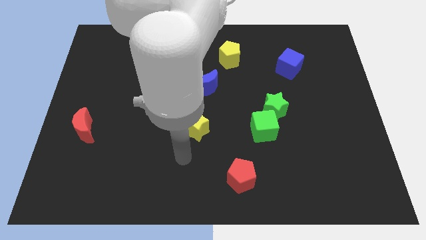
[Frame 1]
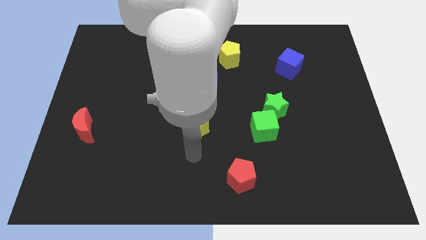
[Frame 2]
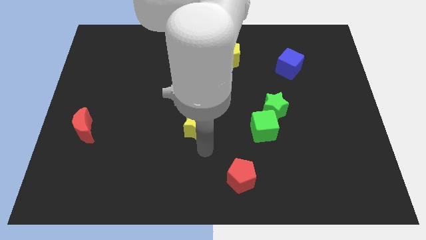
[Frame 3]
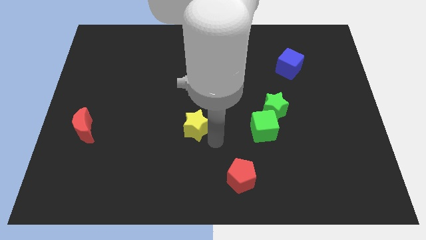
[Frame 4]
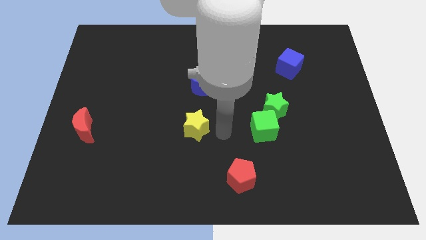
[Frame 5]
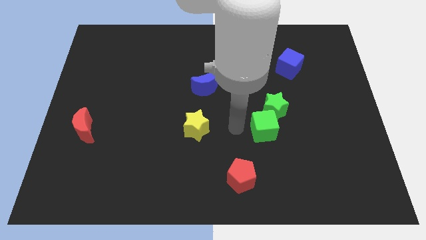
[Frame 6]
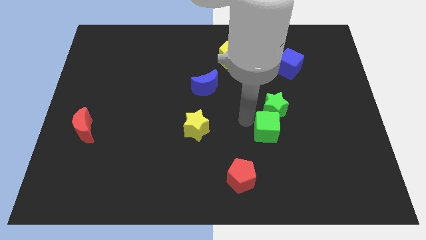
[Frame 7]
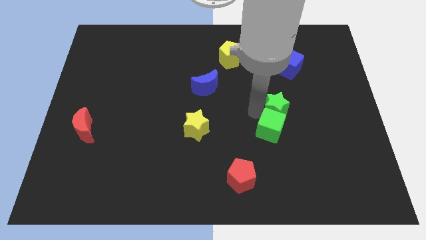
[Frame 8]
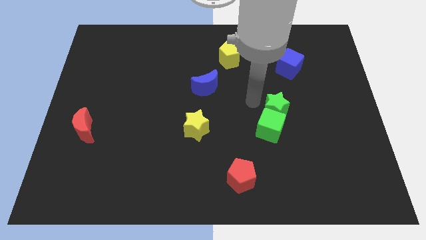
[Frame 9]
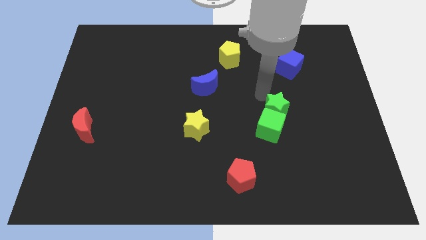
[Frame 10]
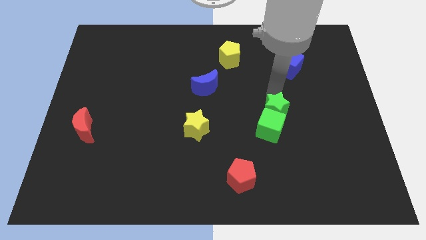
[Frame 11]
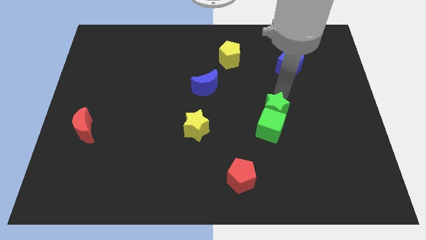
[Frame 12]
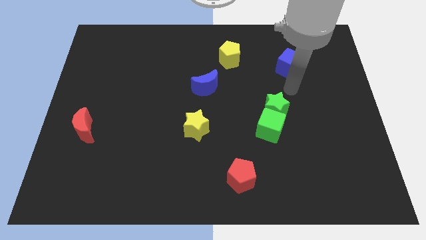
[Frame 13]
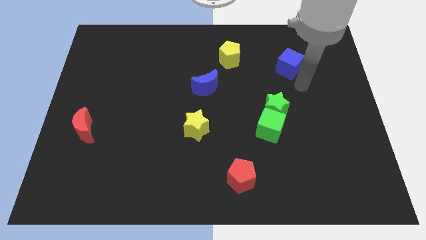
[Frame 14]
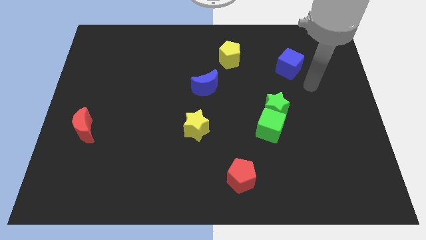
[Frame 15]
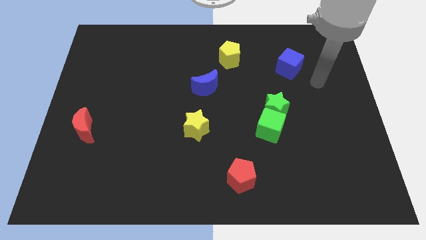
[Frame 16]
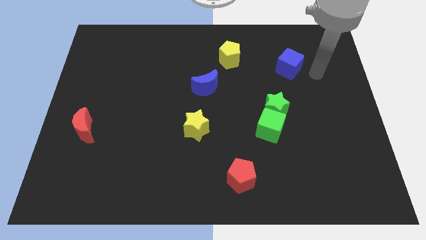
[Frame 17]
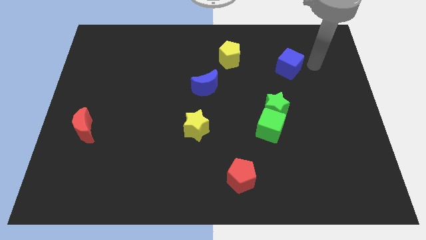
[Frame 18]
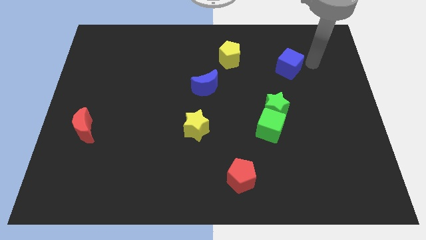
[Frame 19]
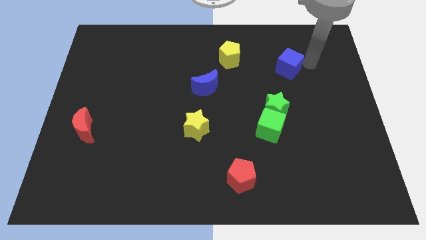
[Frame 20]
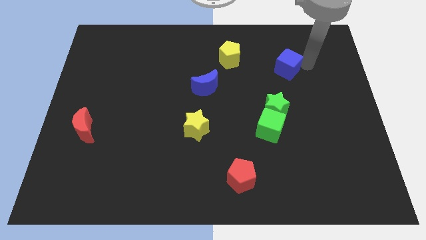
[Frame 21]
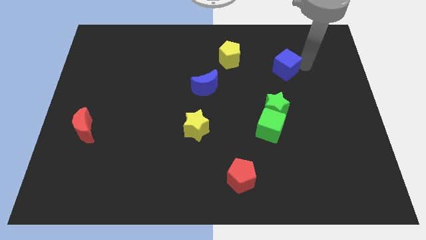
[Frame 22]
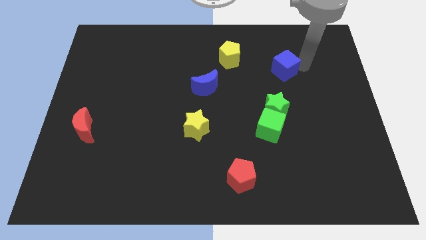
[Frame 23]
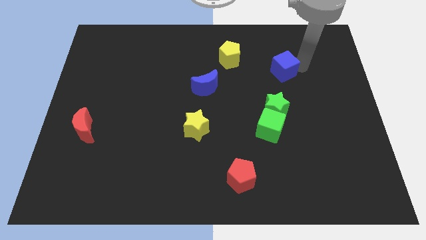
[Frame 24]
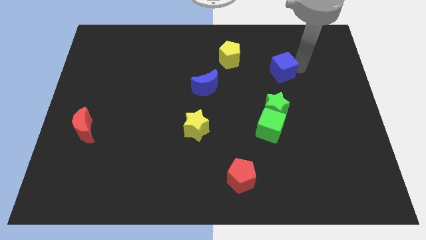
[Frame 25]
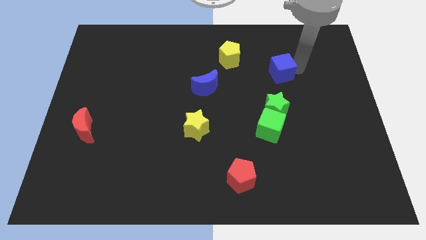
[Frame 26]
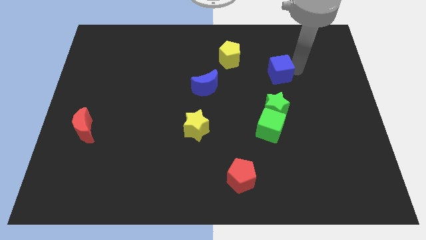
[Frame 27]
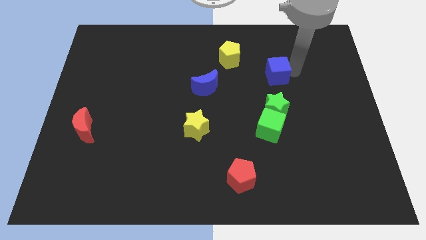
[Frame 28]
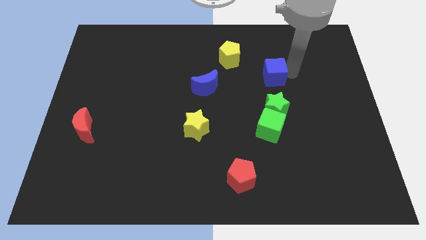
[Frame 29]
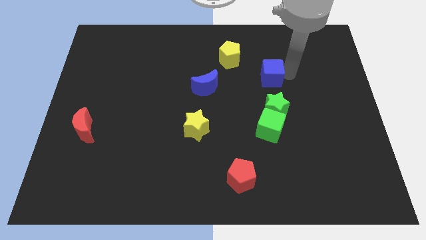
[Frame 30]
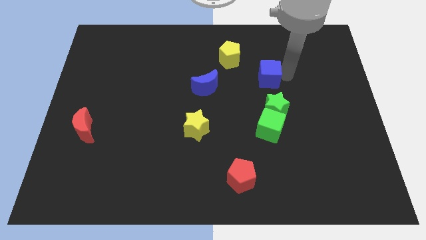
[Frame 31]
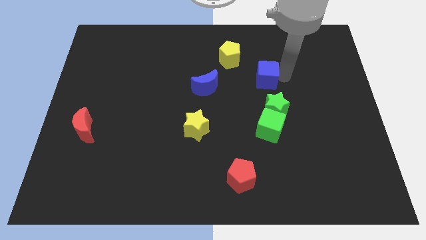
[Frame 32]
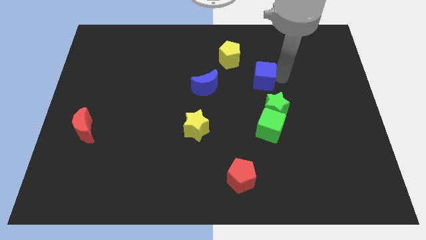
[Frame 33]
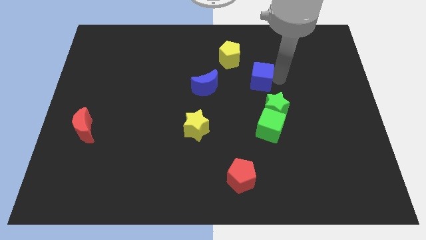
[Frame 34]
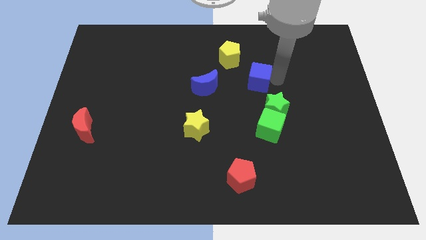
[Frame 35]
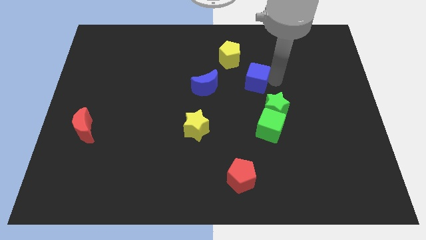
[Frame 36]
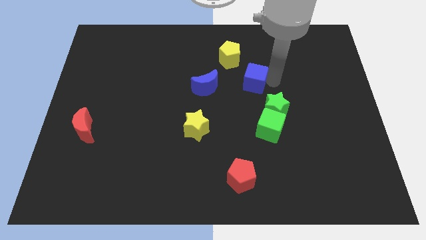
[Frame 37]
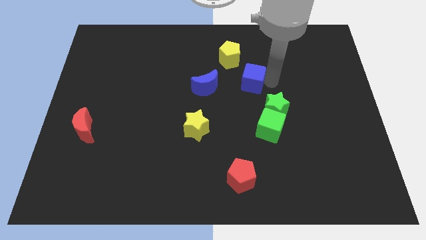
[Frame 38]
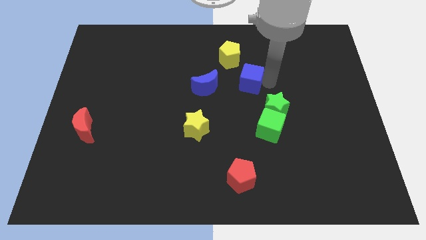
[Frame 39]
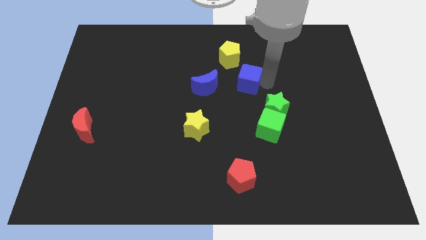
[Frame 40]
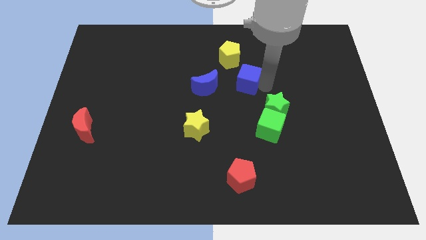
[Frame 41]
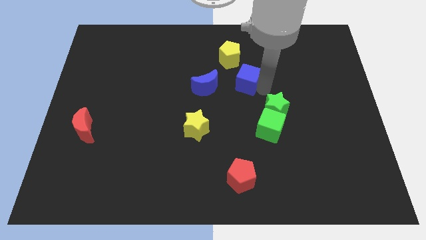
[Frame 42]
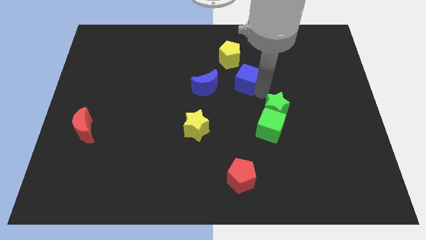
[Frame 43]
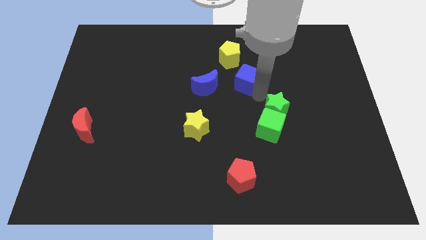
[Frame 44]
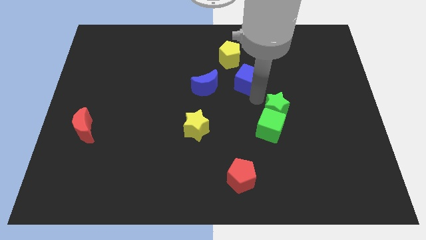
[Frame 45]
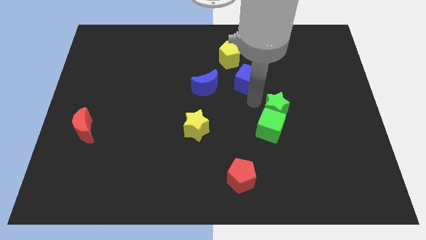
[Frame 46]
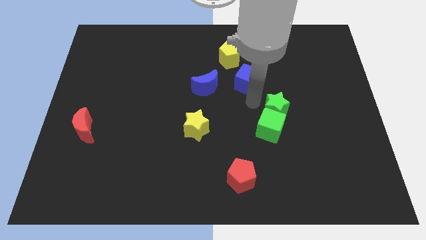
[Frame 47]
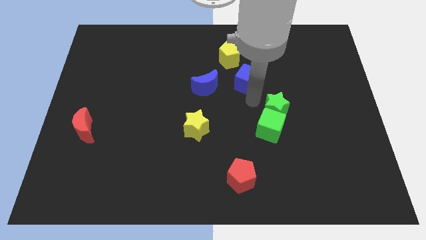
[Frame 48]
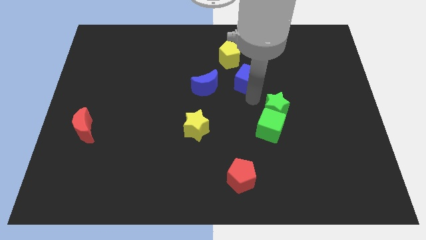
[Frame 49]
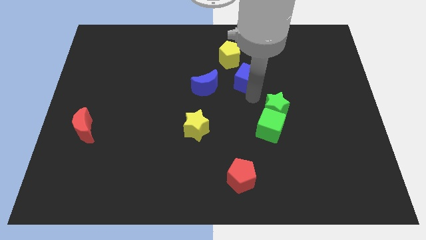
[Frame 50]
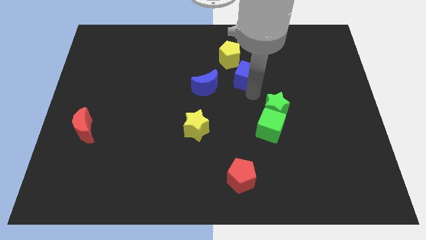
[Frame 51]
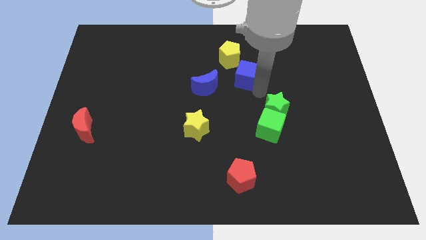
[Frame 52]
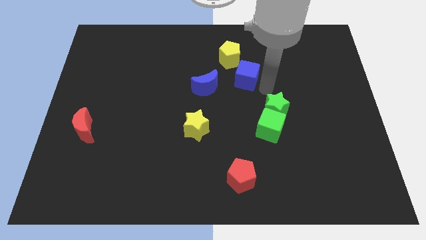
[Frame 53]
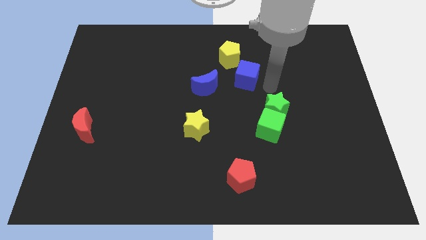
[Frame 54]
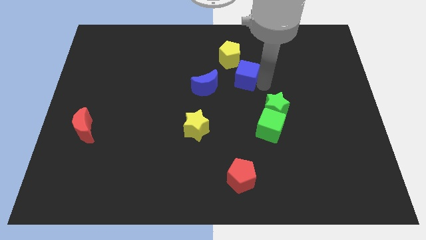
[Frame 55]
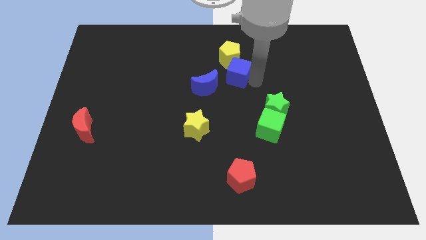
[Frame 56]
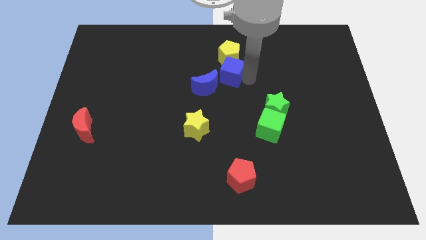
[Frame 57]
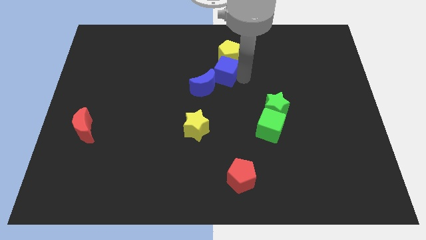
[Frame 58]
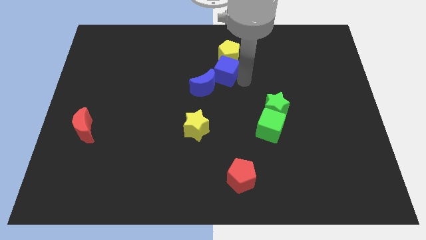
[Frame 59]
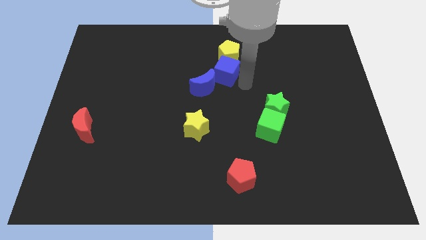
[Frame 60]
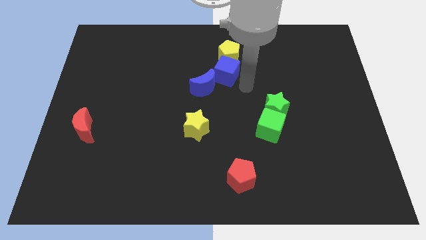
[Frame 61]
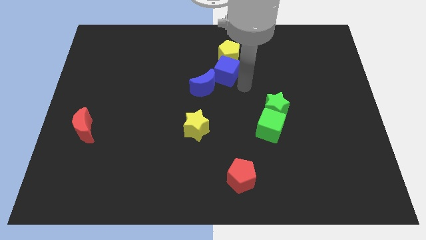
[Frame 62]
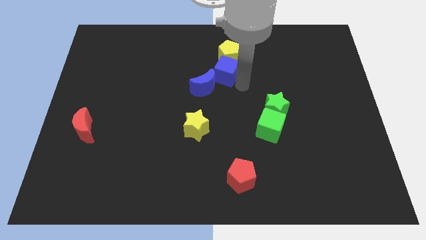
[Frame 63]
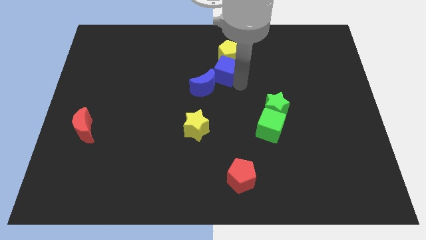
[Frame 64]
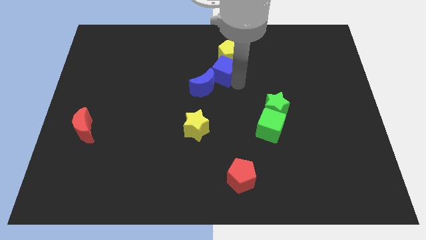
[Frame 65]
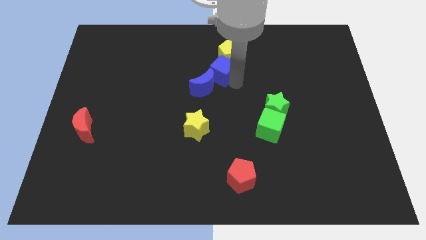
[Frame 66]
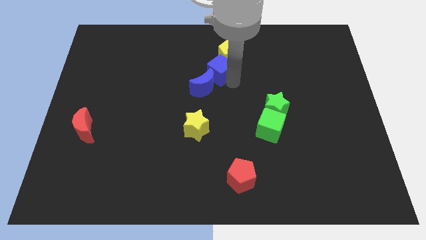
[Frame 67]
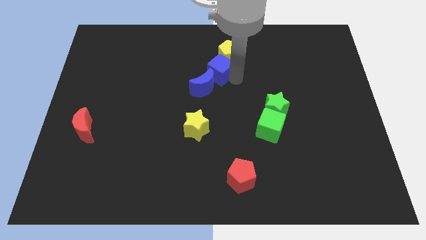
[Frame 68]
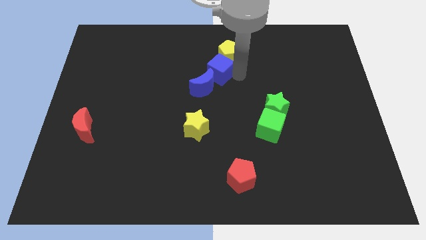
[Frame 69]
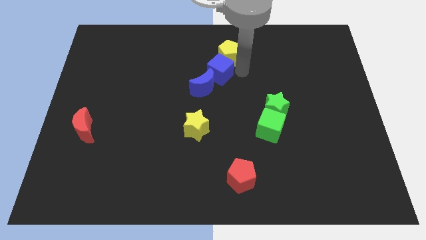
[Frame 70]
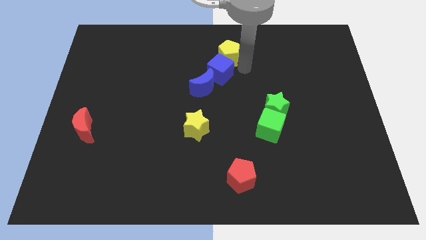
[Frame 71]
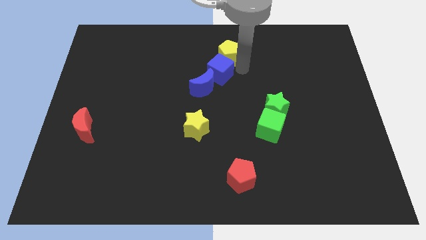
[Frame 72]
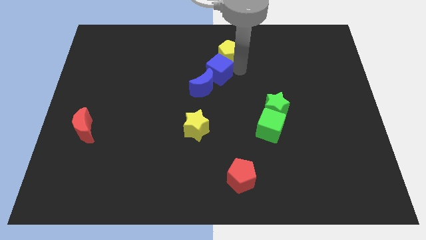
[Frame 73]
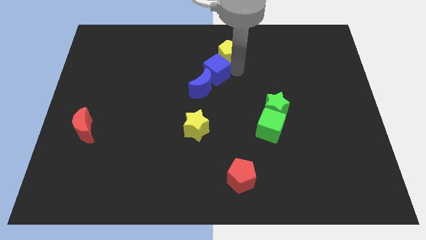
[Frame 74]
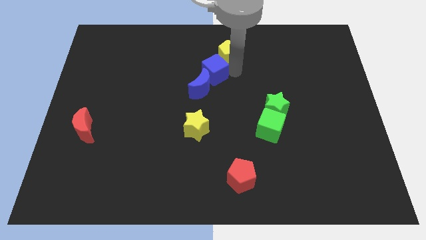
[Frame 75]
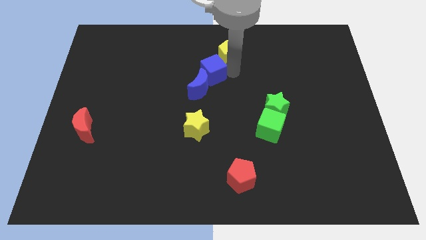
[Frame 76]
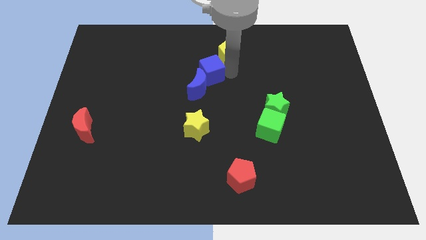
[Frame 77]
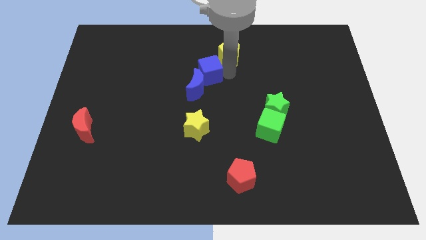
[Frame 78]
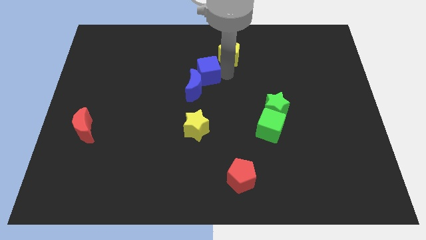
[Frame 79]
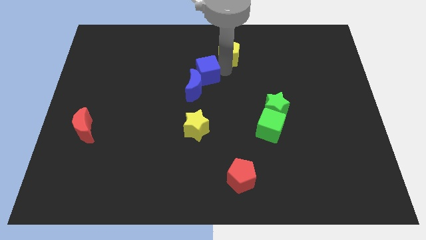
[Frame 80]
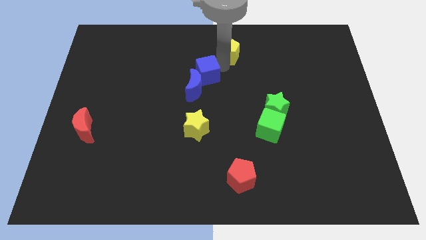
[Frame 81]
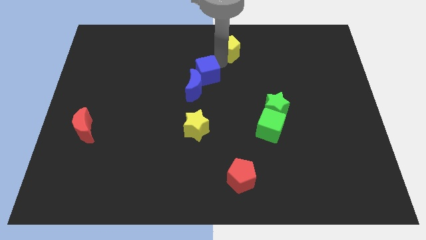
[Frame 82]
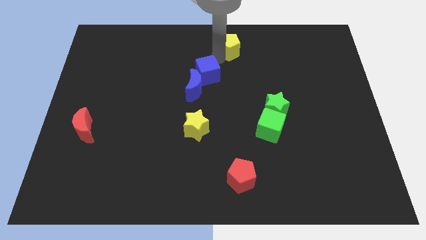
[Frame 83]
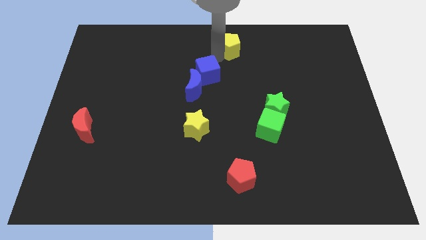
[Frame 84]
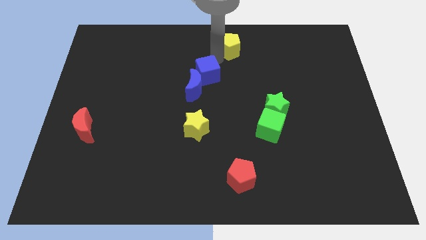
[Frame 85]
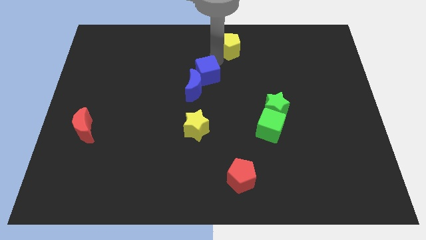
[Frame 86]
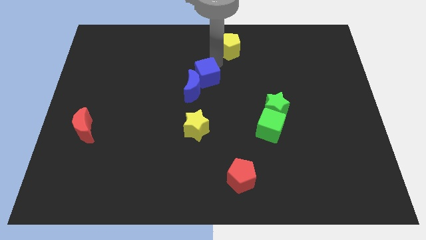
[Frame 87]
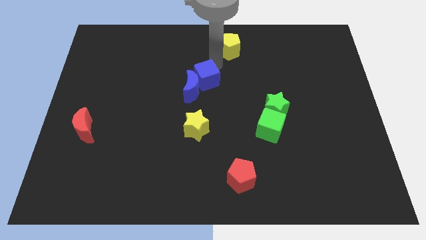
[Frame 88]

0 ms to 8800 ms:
push the blue cube above the yellow star
